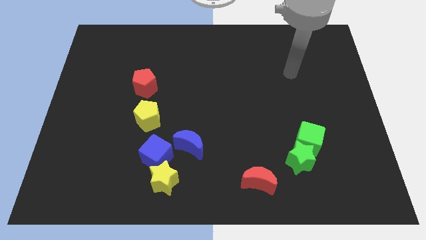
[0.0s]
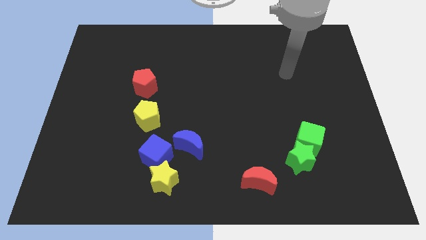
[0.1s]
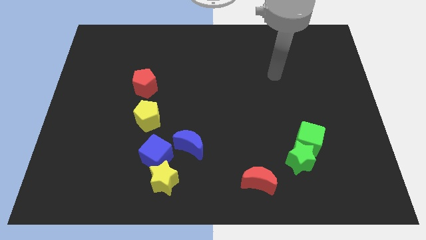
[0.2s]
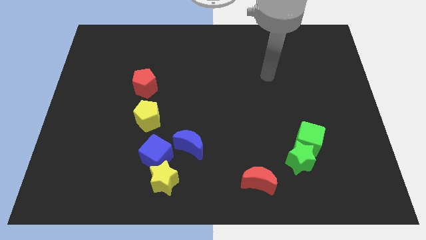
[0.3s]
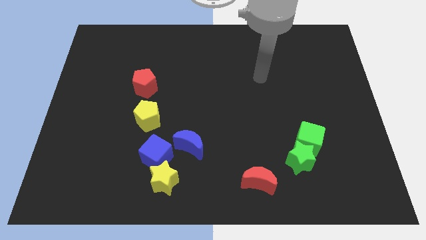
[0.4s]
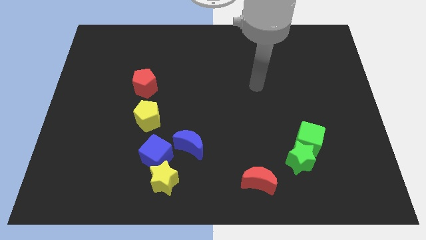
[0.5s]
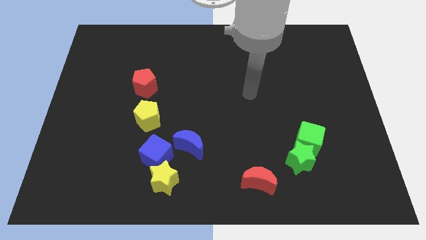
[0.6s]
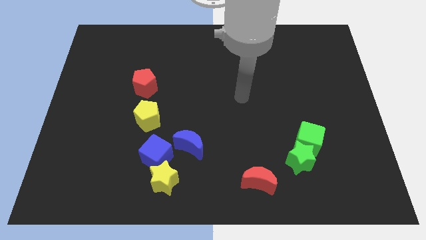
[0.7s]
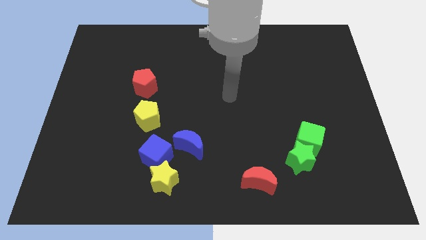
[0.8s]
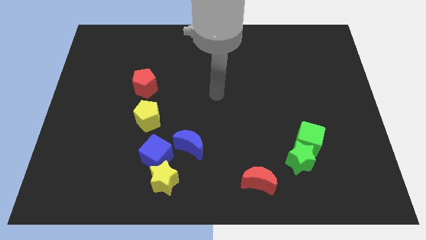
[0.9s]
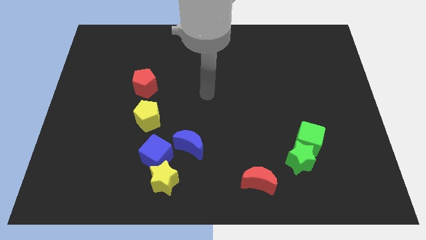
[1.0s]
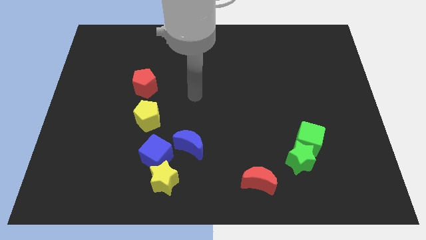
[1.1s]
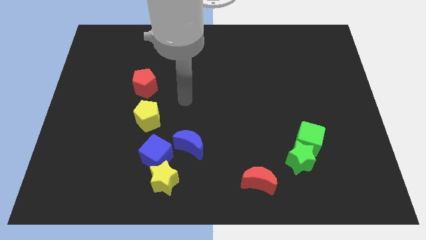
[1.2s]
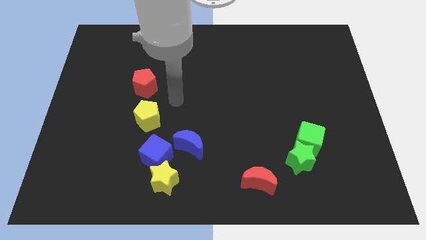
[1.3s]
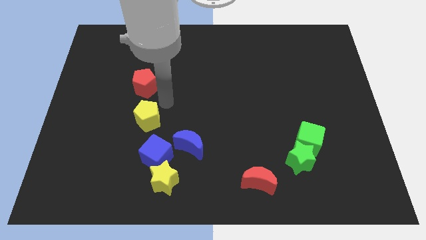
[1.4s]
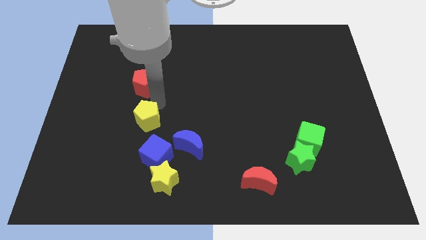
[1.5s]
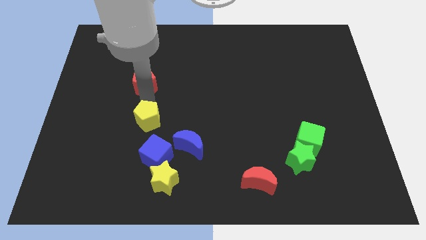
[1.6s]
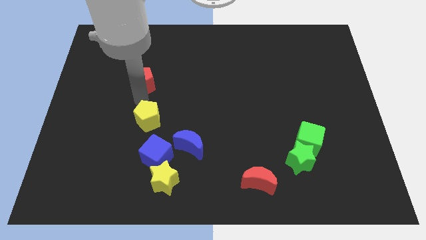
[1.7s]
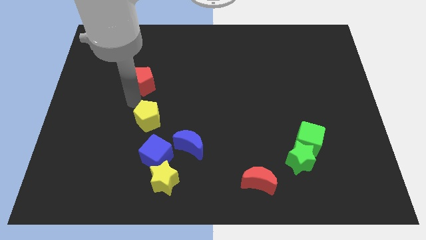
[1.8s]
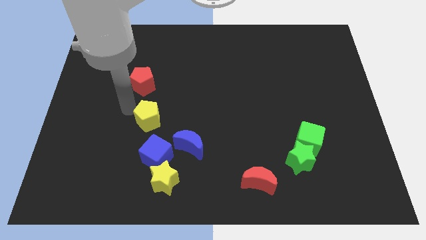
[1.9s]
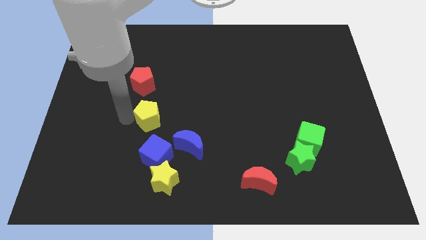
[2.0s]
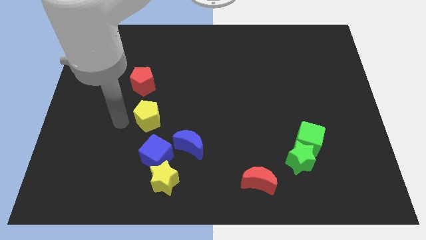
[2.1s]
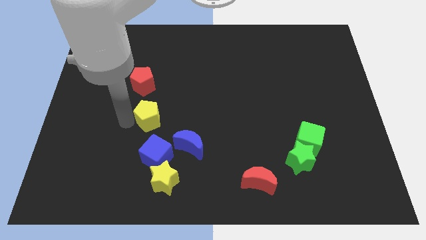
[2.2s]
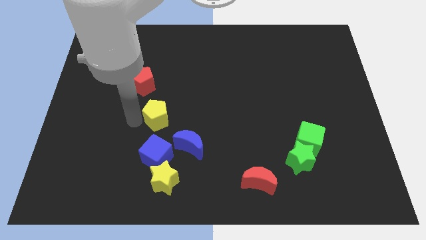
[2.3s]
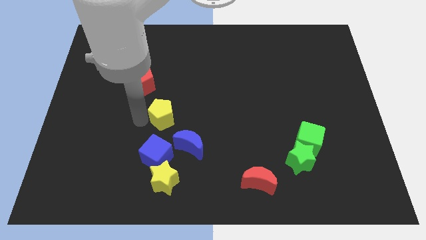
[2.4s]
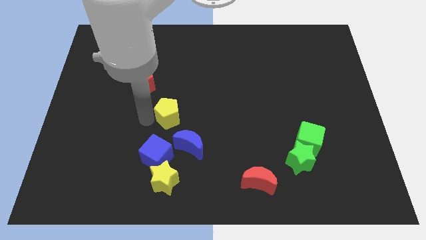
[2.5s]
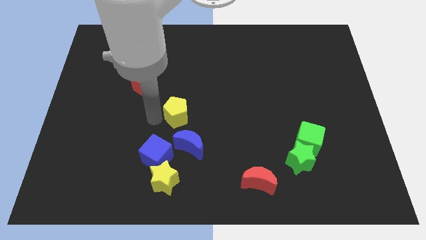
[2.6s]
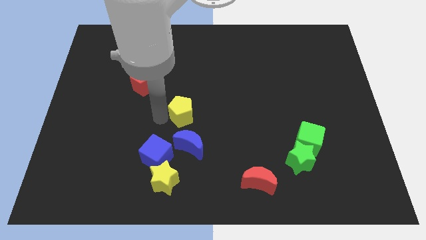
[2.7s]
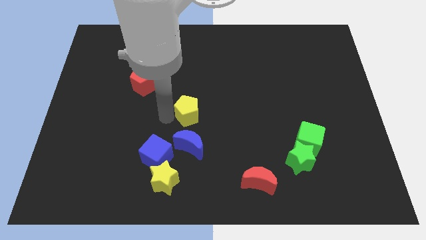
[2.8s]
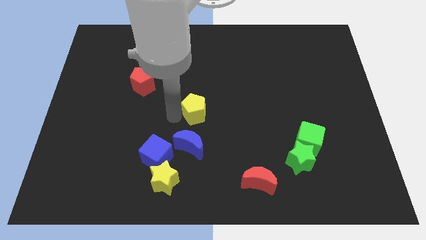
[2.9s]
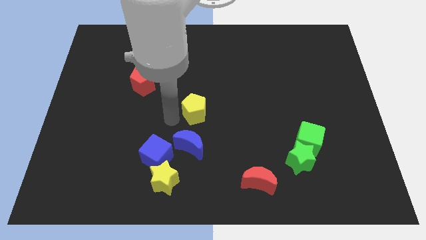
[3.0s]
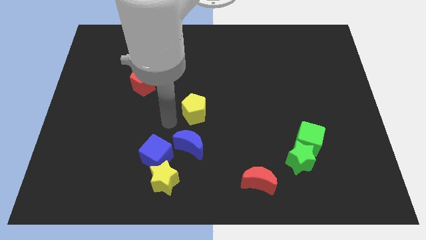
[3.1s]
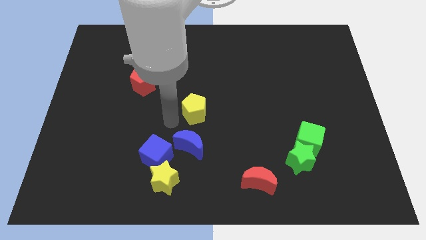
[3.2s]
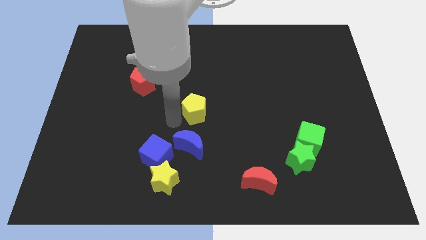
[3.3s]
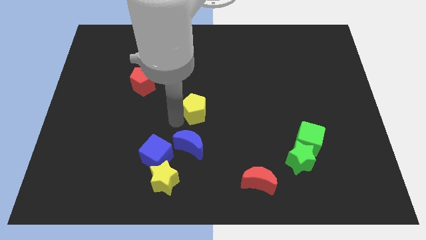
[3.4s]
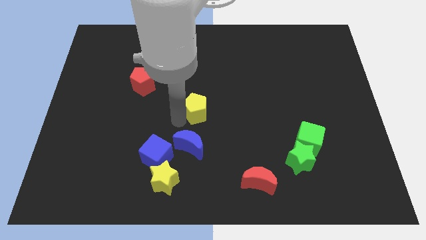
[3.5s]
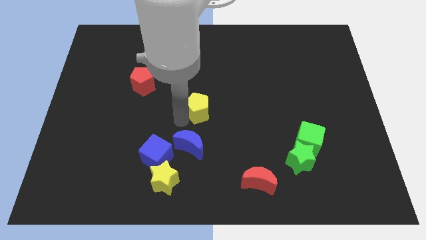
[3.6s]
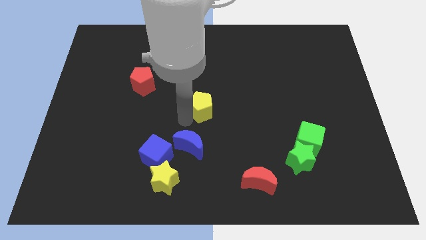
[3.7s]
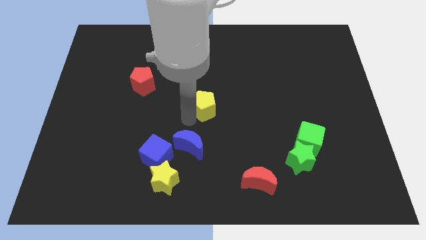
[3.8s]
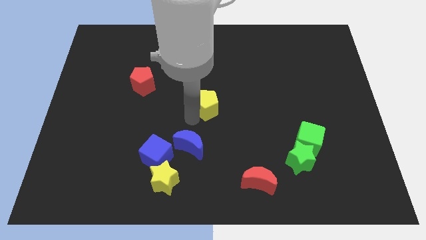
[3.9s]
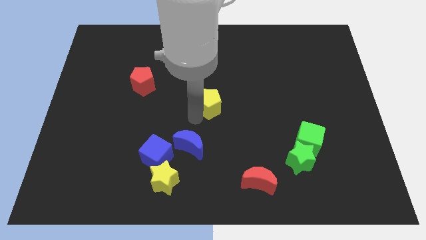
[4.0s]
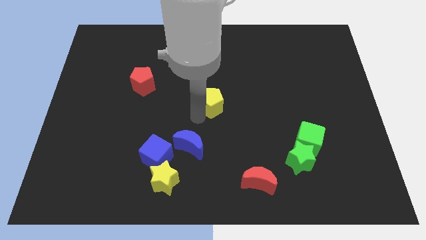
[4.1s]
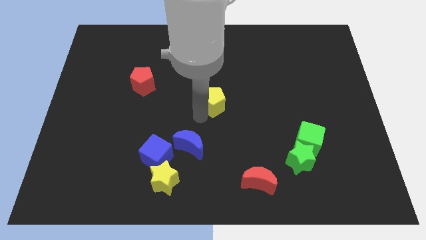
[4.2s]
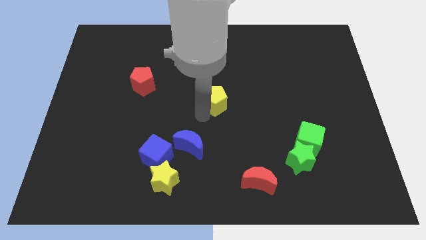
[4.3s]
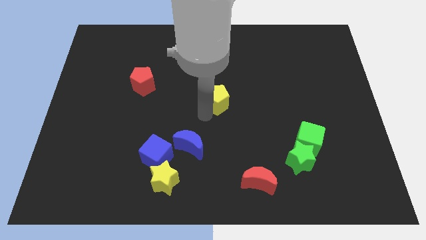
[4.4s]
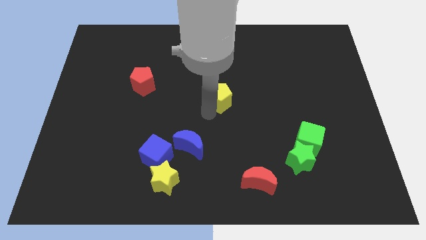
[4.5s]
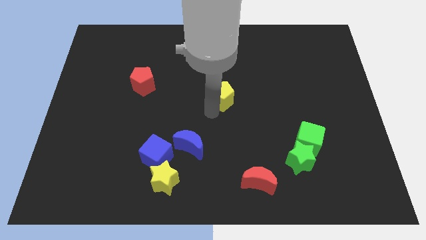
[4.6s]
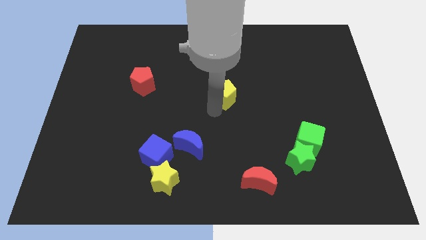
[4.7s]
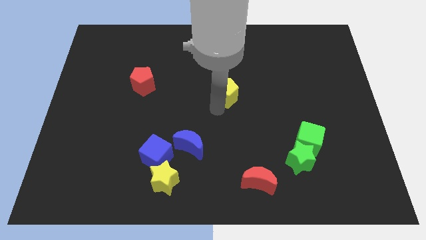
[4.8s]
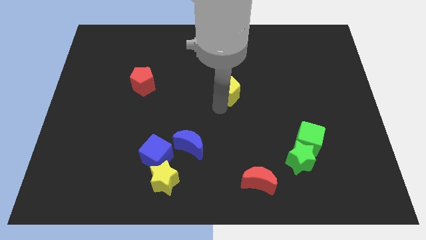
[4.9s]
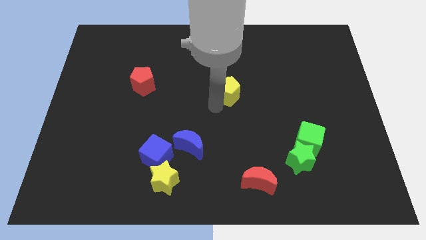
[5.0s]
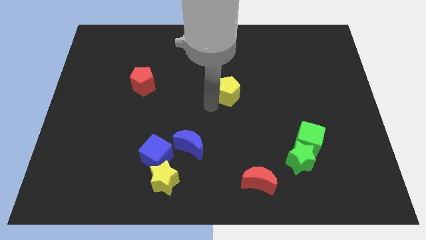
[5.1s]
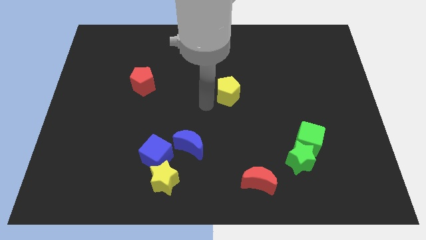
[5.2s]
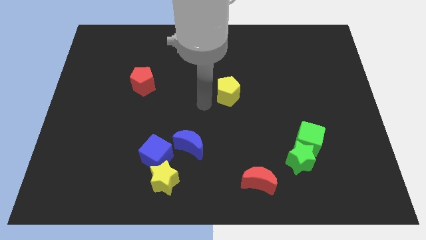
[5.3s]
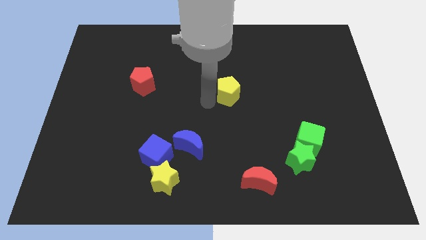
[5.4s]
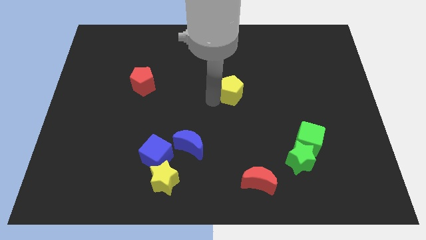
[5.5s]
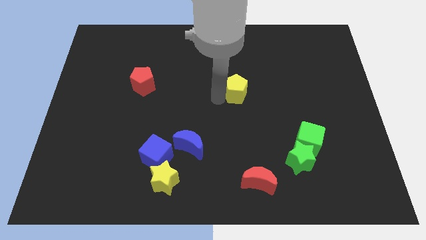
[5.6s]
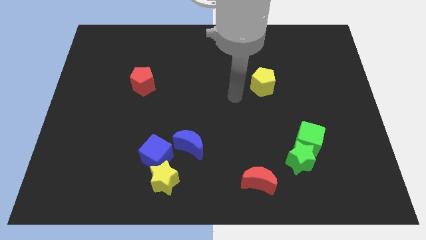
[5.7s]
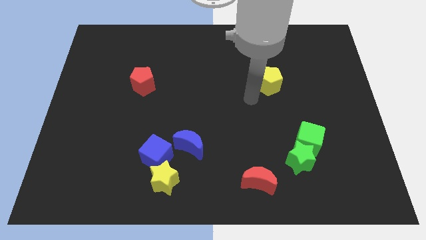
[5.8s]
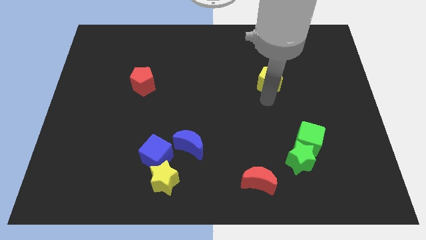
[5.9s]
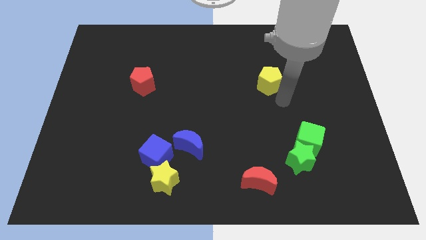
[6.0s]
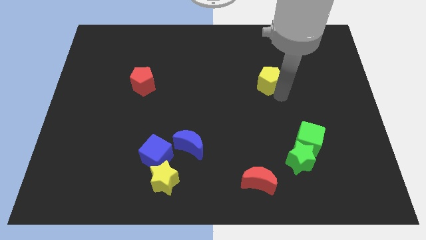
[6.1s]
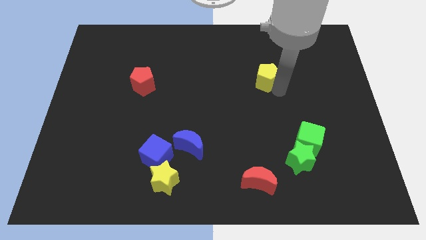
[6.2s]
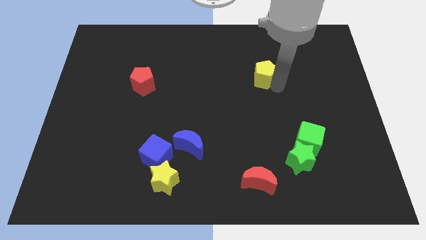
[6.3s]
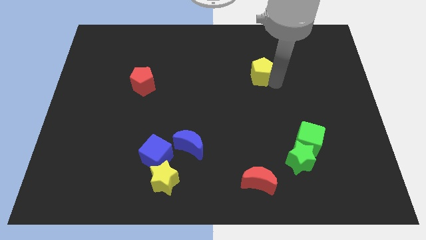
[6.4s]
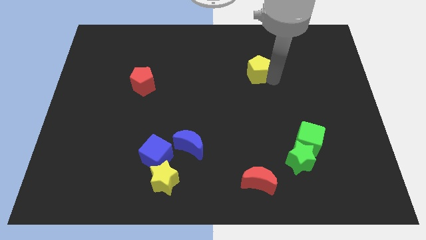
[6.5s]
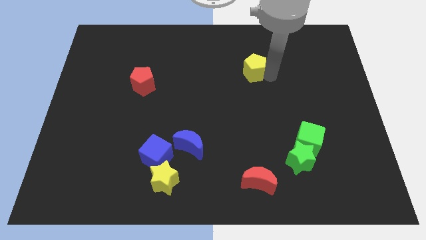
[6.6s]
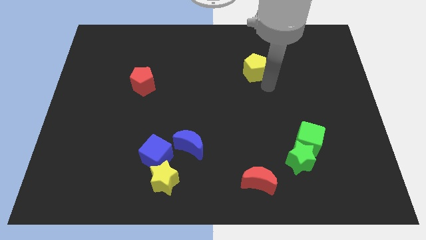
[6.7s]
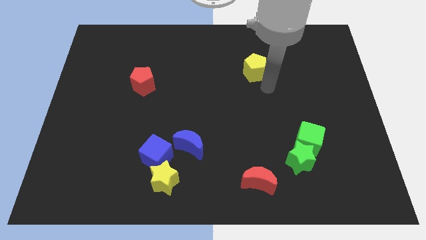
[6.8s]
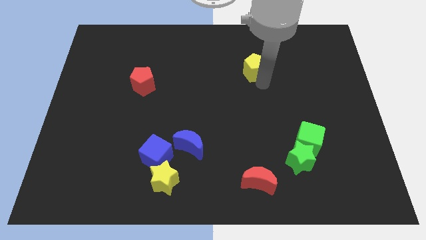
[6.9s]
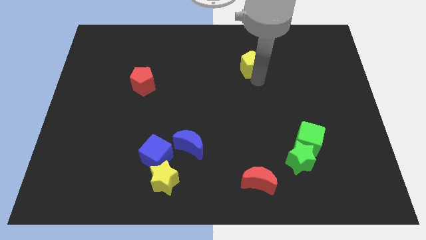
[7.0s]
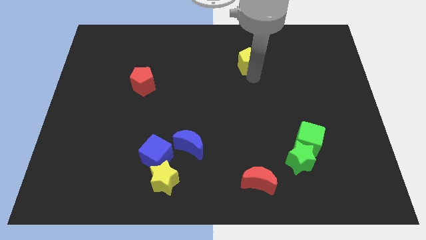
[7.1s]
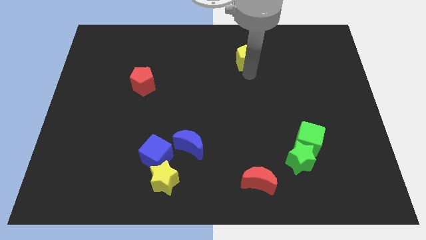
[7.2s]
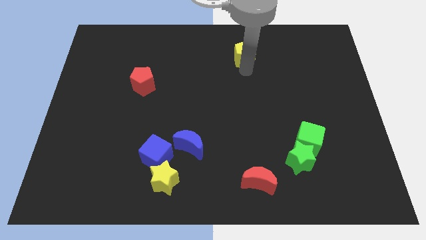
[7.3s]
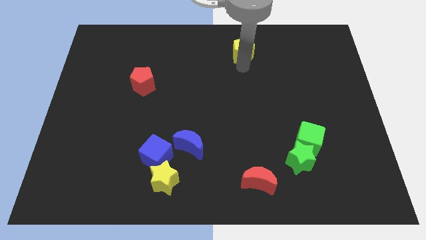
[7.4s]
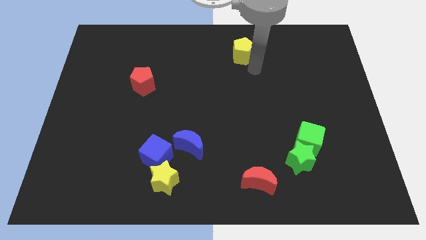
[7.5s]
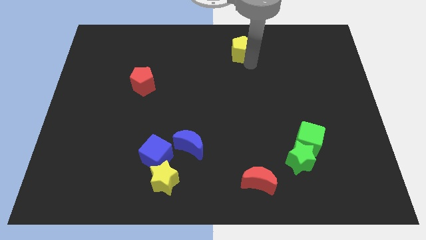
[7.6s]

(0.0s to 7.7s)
put the yellow pentagon to the top
